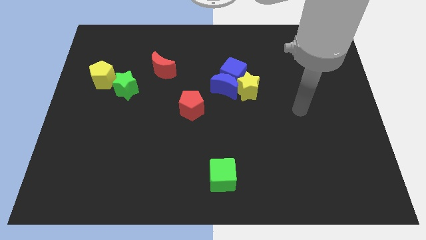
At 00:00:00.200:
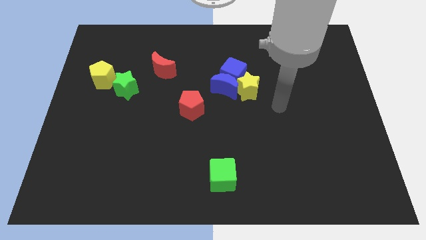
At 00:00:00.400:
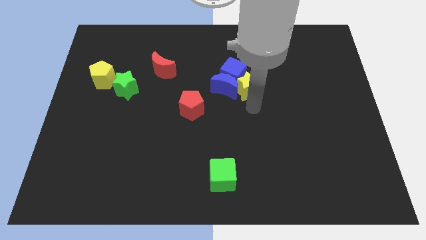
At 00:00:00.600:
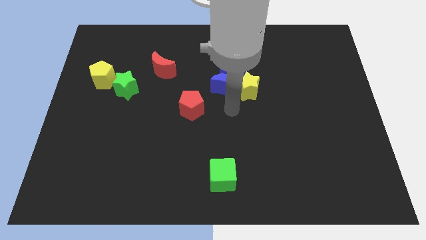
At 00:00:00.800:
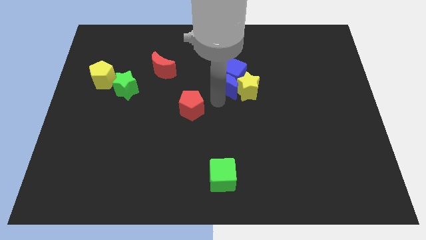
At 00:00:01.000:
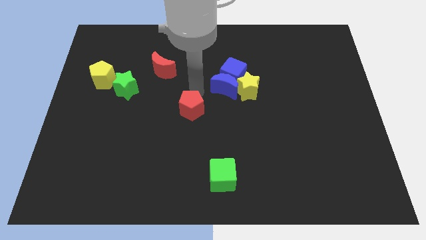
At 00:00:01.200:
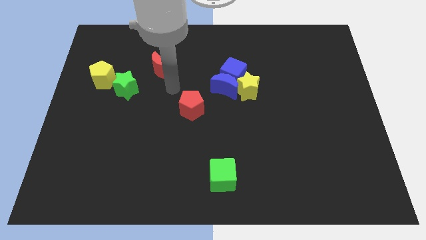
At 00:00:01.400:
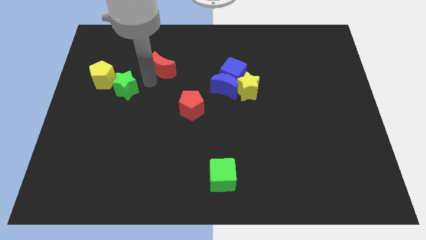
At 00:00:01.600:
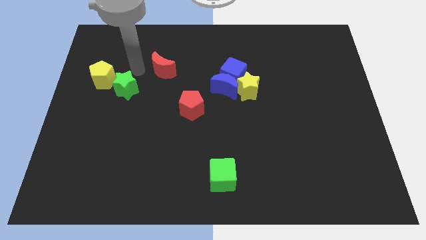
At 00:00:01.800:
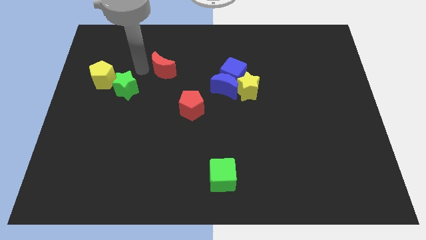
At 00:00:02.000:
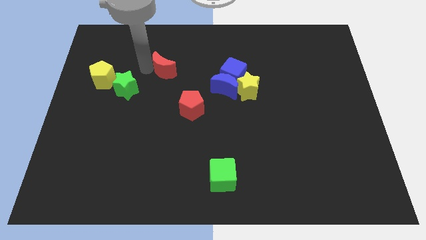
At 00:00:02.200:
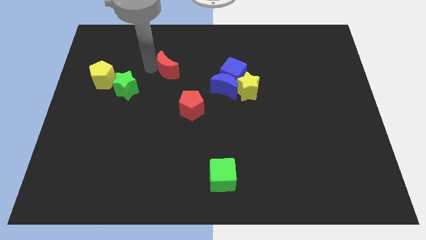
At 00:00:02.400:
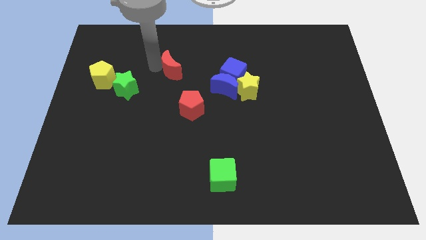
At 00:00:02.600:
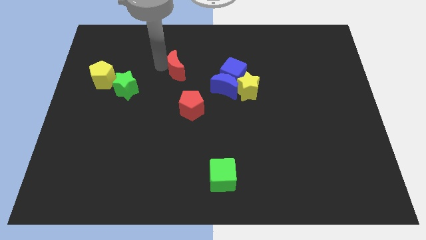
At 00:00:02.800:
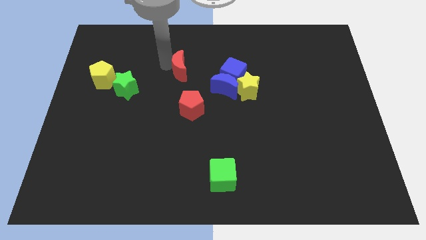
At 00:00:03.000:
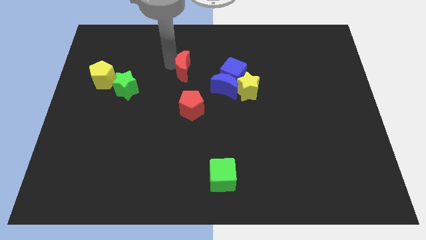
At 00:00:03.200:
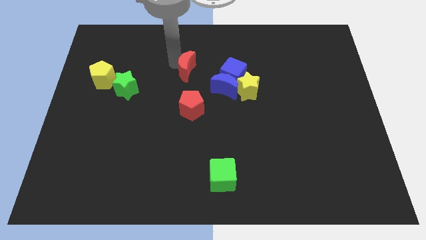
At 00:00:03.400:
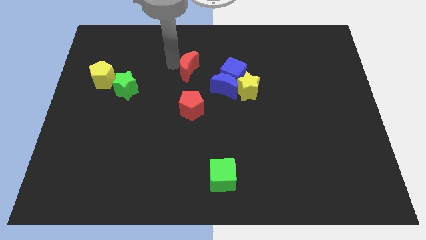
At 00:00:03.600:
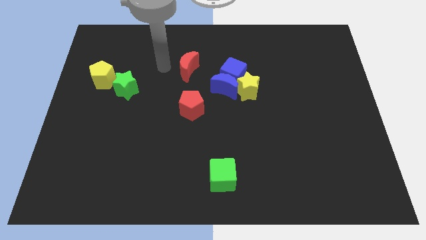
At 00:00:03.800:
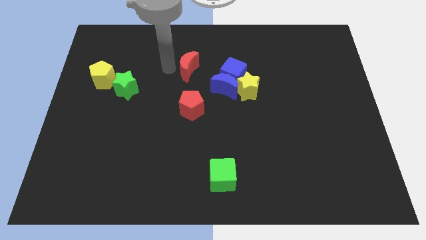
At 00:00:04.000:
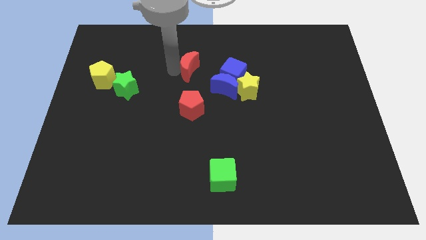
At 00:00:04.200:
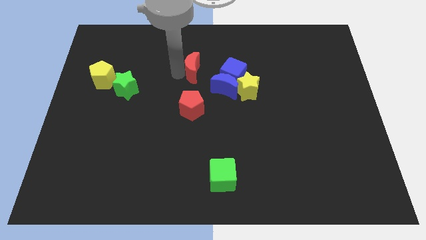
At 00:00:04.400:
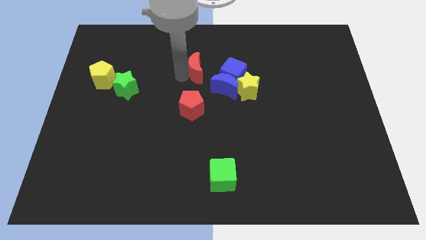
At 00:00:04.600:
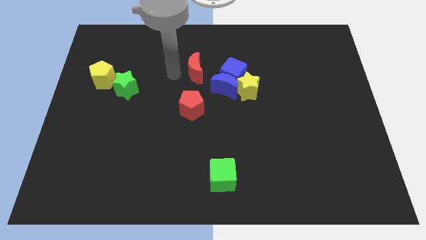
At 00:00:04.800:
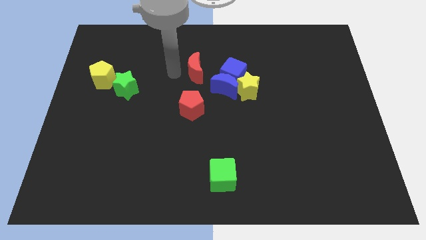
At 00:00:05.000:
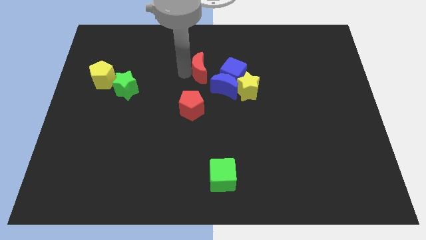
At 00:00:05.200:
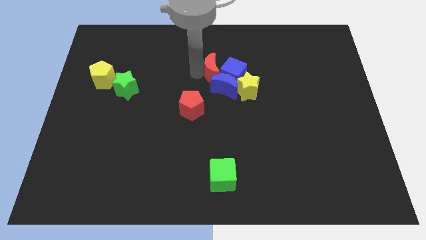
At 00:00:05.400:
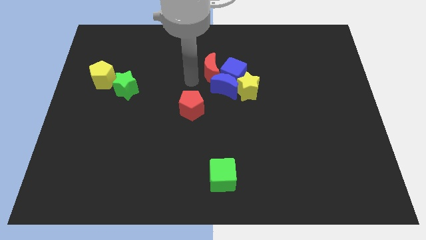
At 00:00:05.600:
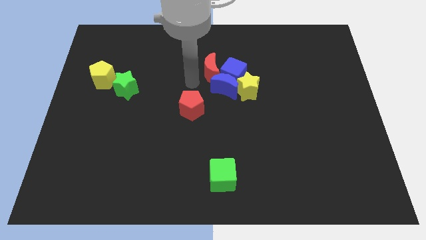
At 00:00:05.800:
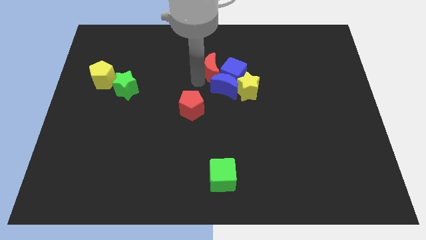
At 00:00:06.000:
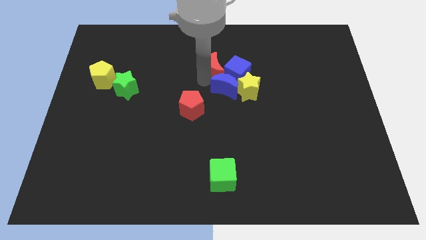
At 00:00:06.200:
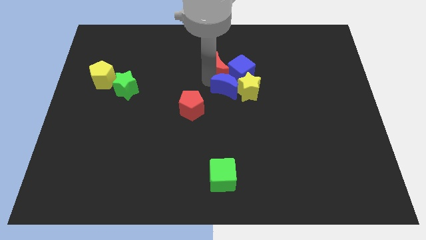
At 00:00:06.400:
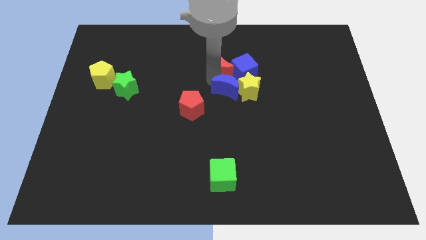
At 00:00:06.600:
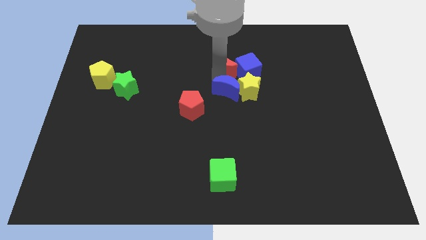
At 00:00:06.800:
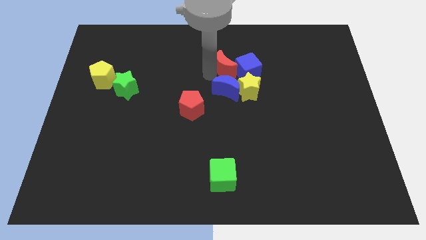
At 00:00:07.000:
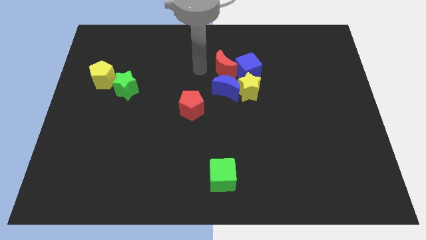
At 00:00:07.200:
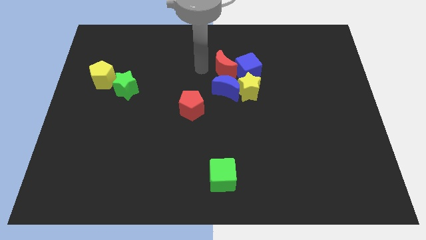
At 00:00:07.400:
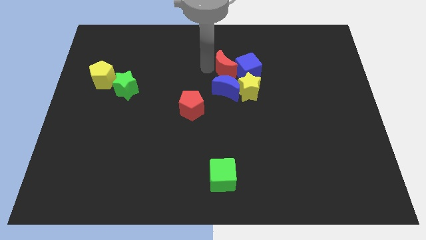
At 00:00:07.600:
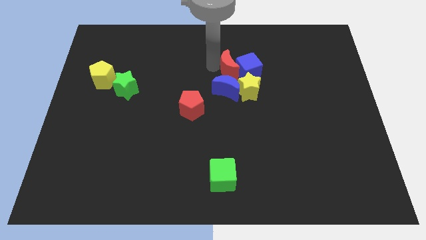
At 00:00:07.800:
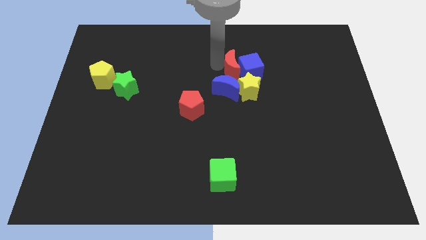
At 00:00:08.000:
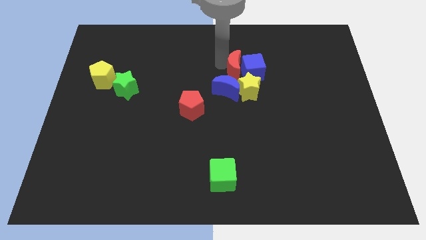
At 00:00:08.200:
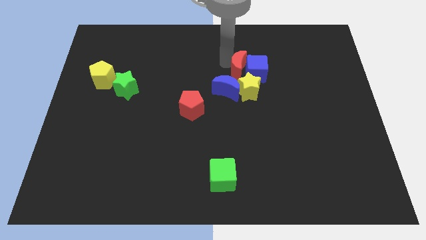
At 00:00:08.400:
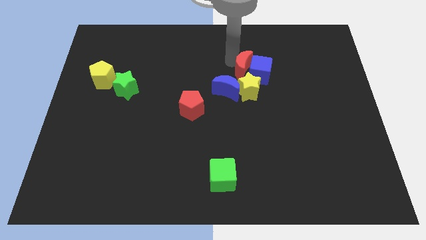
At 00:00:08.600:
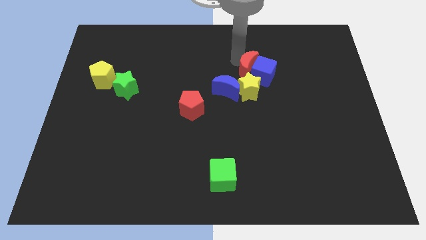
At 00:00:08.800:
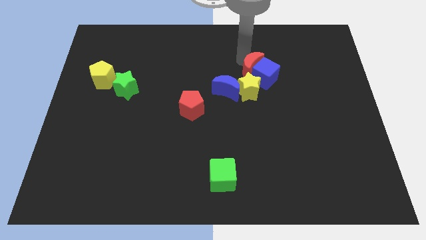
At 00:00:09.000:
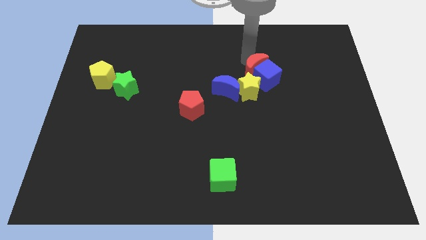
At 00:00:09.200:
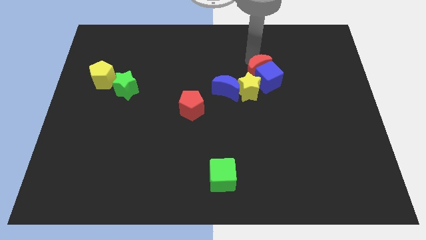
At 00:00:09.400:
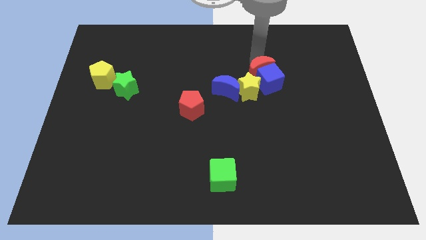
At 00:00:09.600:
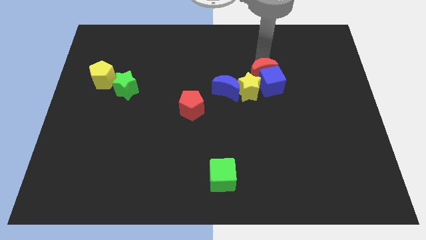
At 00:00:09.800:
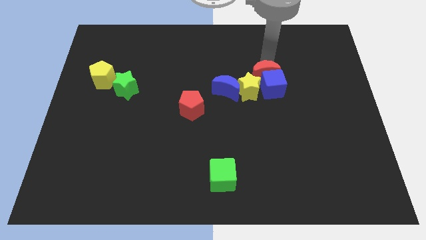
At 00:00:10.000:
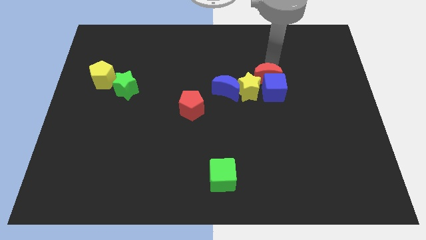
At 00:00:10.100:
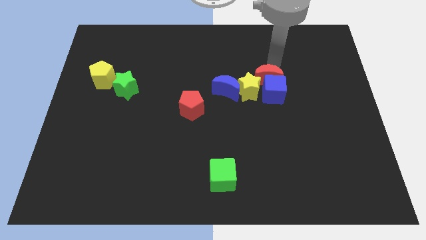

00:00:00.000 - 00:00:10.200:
push the red moon towards the yellow star

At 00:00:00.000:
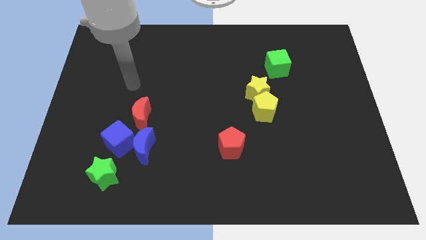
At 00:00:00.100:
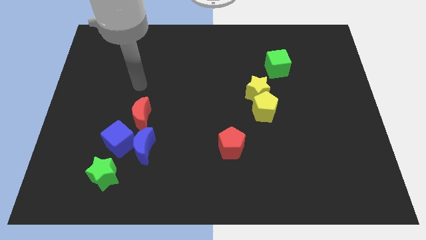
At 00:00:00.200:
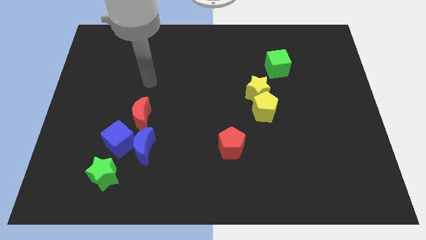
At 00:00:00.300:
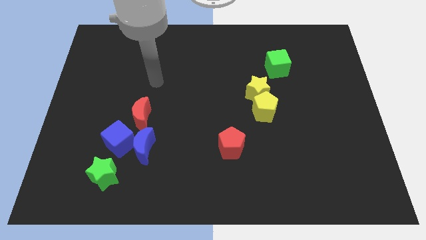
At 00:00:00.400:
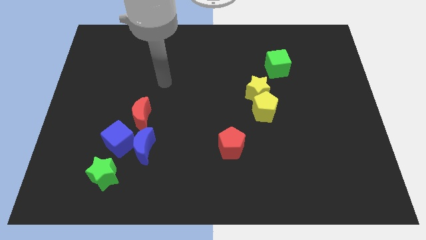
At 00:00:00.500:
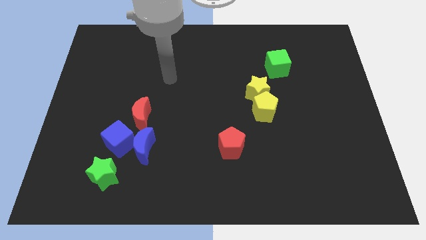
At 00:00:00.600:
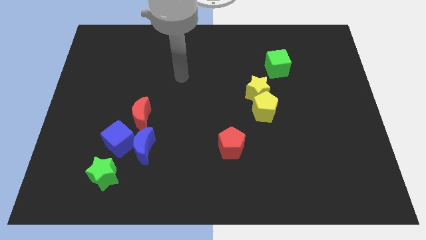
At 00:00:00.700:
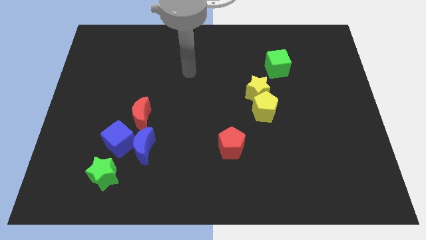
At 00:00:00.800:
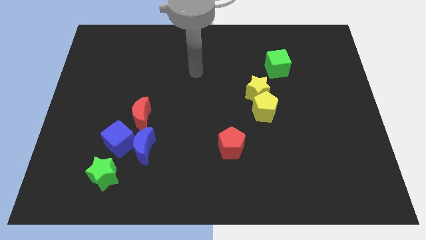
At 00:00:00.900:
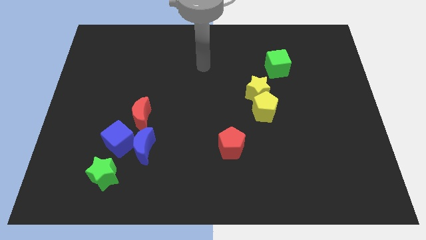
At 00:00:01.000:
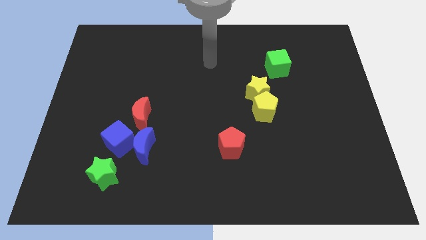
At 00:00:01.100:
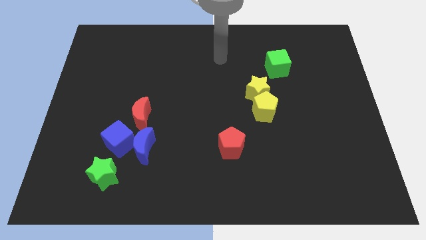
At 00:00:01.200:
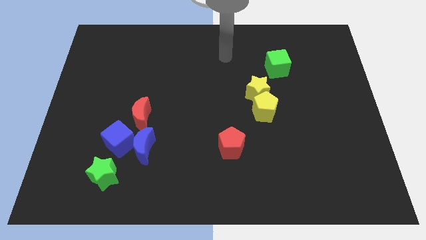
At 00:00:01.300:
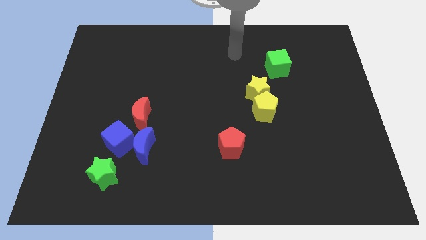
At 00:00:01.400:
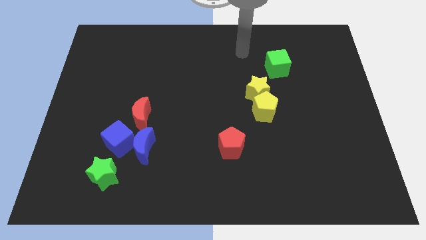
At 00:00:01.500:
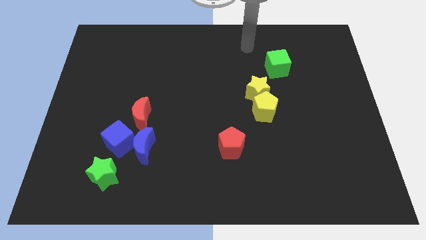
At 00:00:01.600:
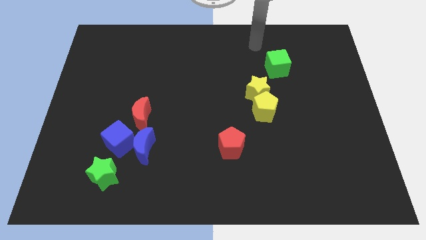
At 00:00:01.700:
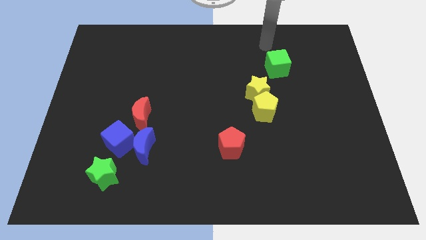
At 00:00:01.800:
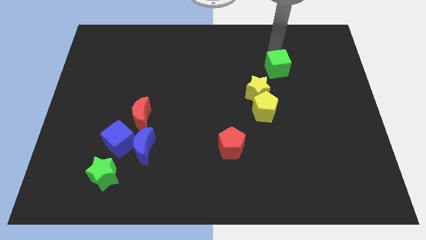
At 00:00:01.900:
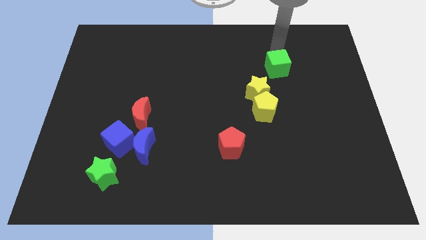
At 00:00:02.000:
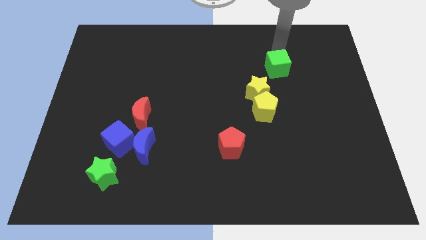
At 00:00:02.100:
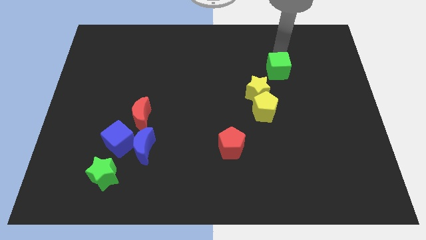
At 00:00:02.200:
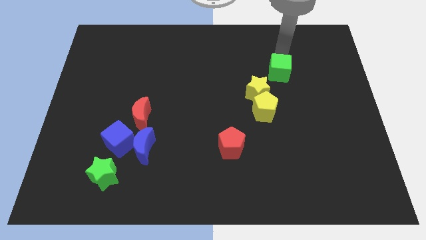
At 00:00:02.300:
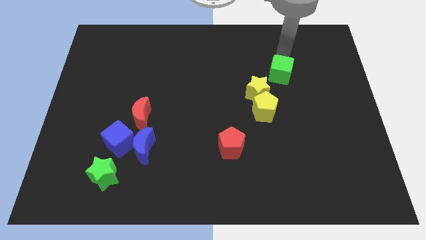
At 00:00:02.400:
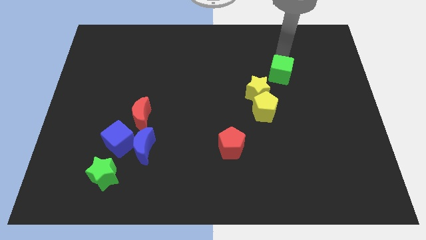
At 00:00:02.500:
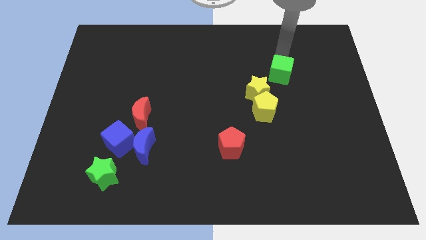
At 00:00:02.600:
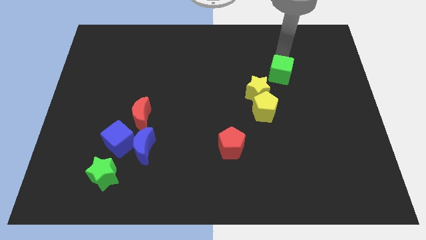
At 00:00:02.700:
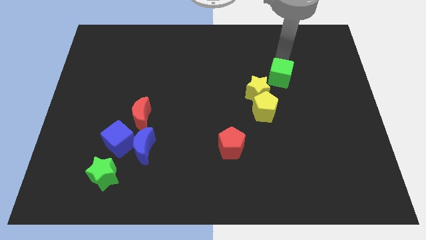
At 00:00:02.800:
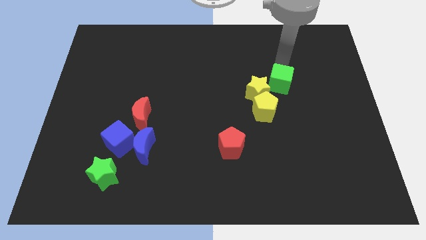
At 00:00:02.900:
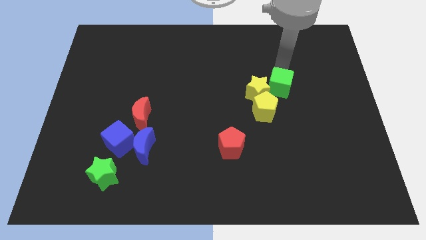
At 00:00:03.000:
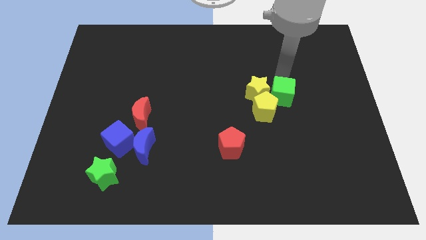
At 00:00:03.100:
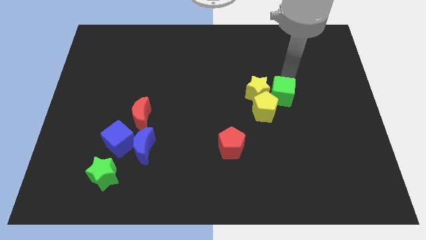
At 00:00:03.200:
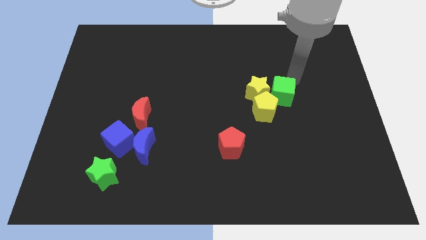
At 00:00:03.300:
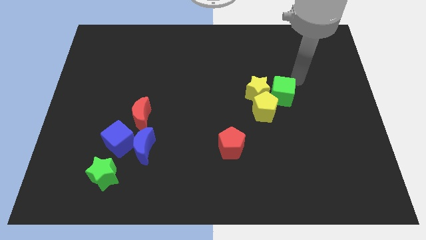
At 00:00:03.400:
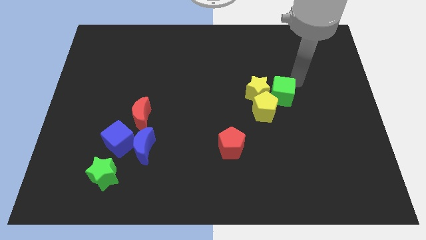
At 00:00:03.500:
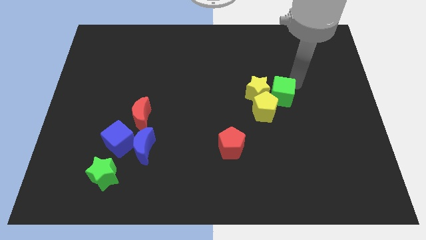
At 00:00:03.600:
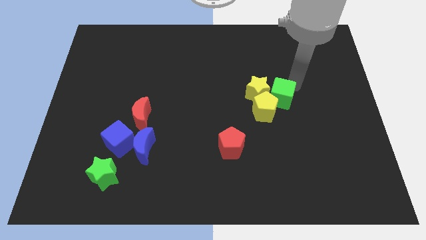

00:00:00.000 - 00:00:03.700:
slide the green cube towards the yellow pentagon
